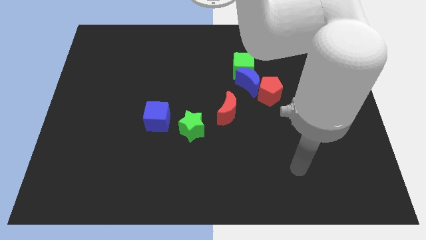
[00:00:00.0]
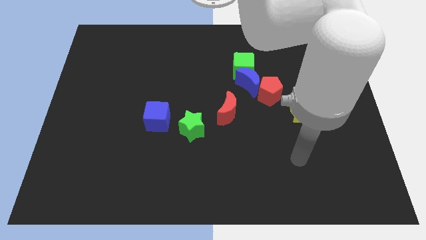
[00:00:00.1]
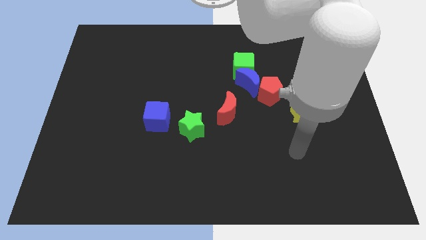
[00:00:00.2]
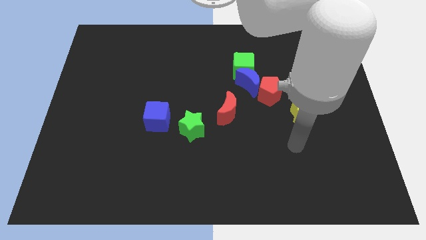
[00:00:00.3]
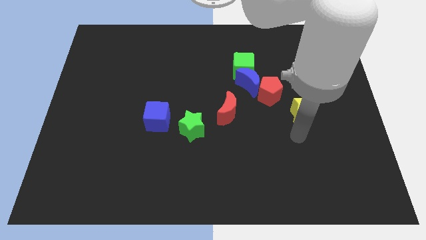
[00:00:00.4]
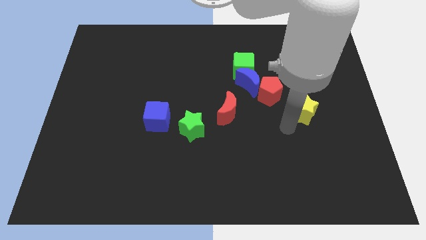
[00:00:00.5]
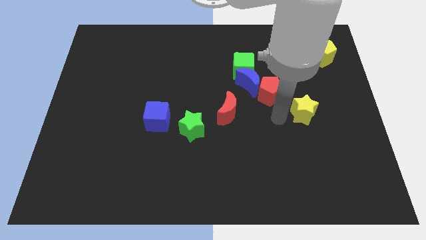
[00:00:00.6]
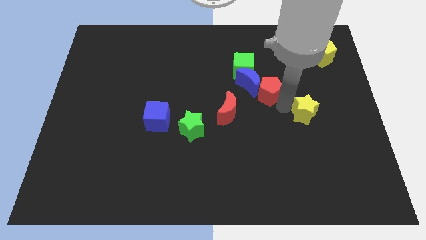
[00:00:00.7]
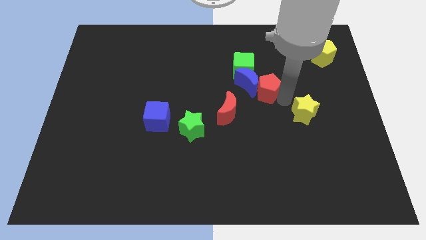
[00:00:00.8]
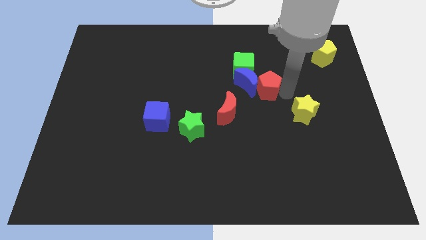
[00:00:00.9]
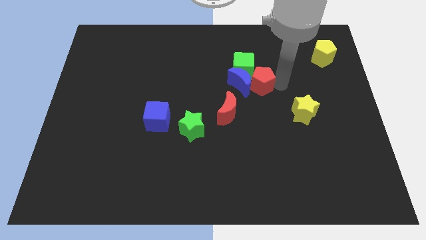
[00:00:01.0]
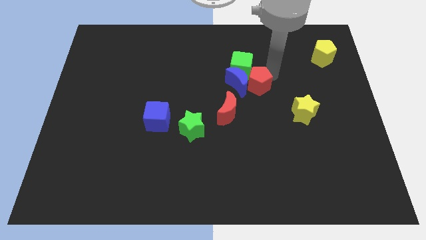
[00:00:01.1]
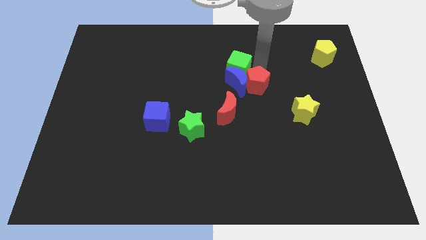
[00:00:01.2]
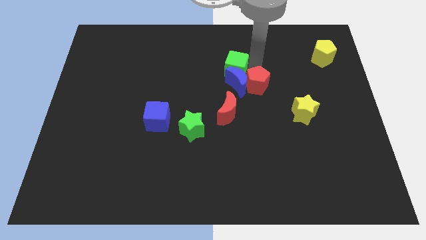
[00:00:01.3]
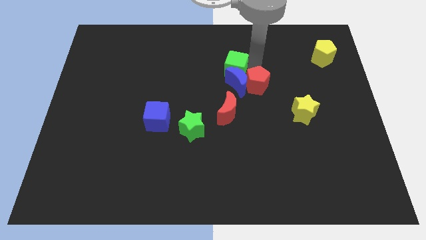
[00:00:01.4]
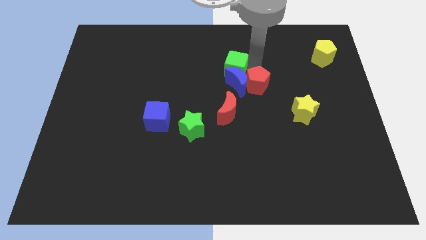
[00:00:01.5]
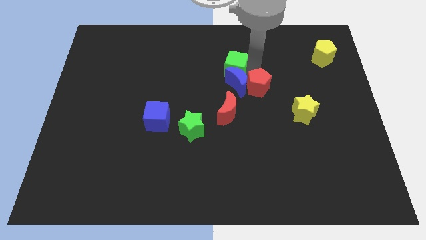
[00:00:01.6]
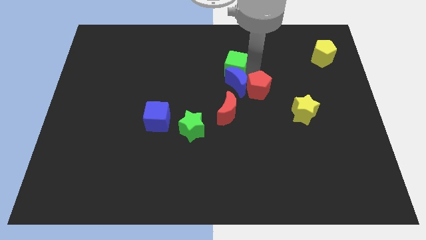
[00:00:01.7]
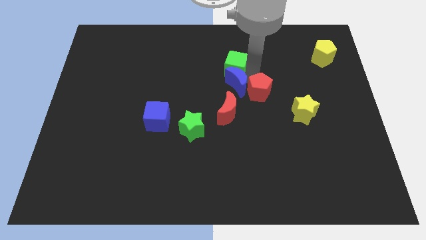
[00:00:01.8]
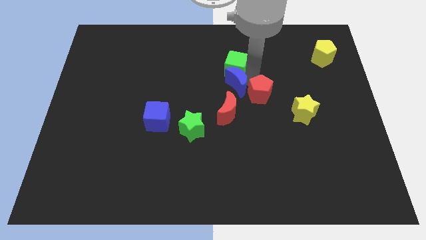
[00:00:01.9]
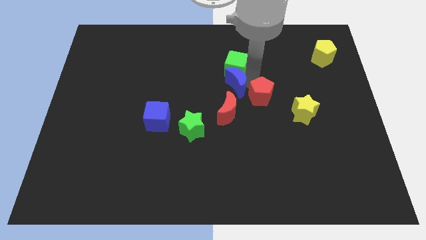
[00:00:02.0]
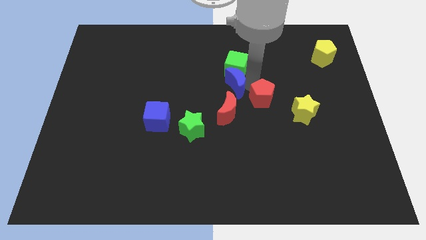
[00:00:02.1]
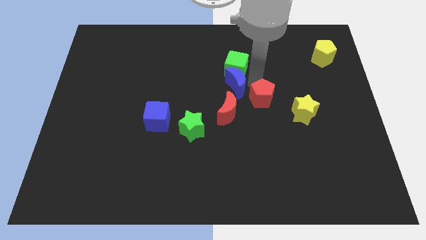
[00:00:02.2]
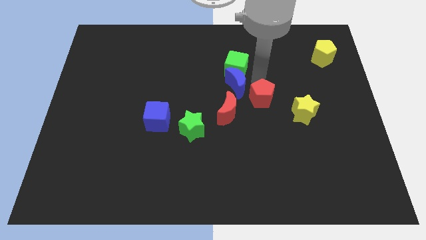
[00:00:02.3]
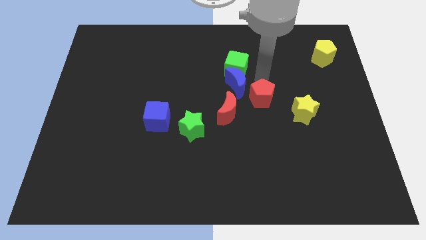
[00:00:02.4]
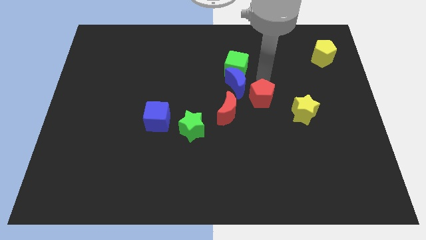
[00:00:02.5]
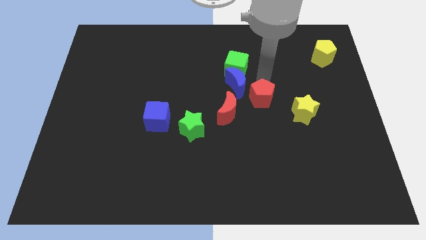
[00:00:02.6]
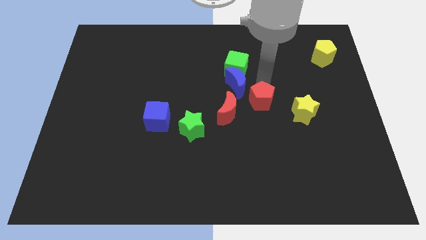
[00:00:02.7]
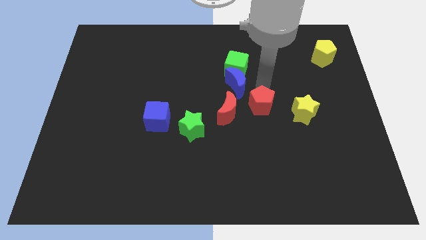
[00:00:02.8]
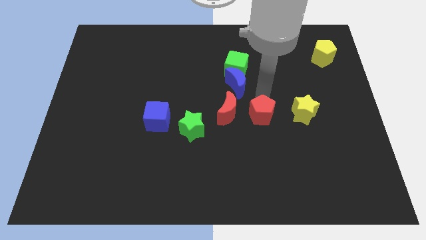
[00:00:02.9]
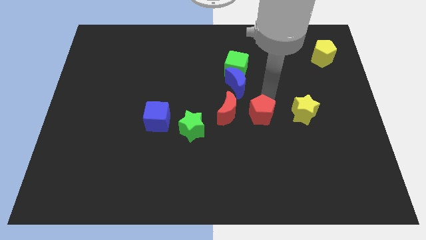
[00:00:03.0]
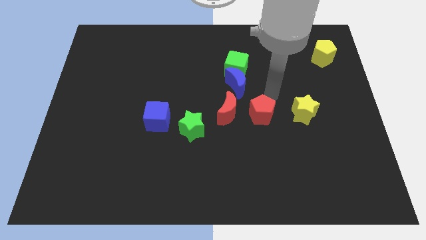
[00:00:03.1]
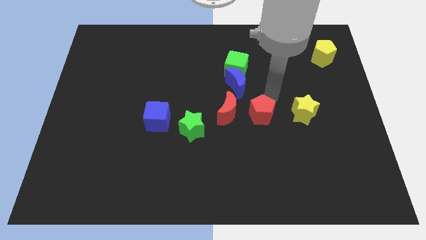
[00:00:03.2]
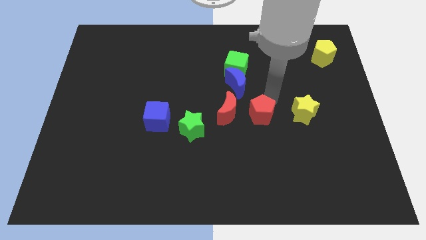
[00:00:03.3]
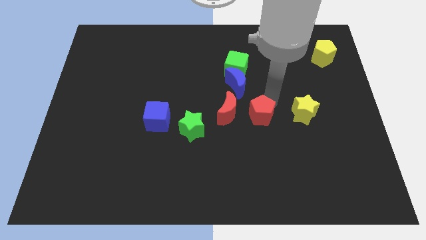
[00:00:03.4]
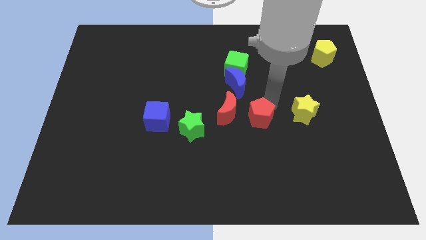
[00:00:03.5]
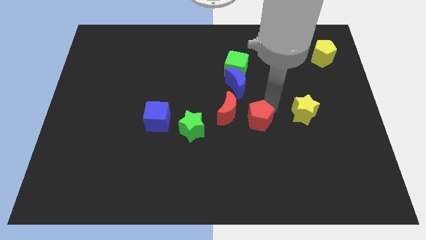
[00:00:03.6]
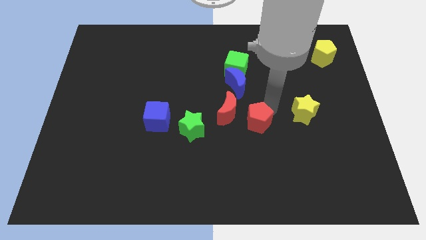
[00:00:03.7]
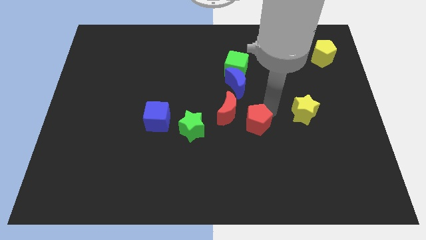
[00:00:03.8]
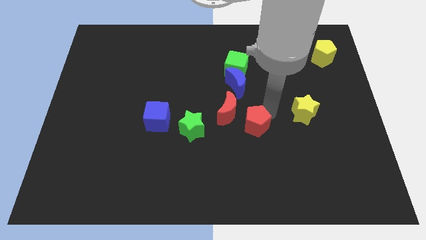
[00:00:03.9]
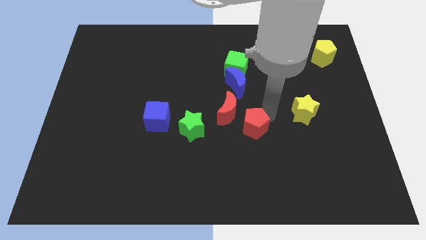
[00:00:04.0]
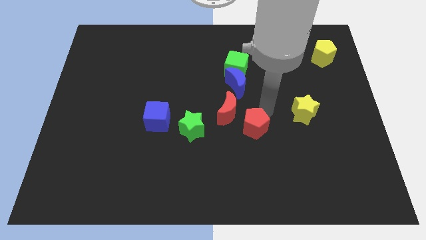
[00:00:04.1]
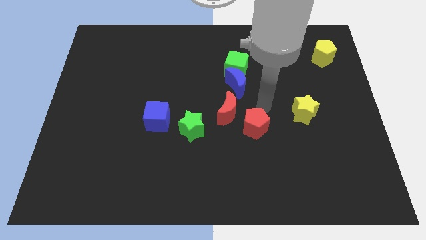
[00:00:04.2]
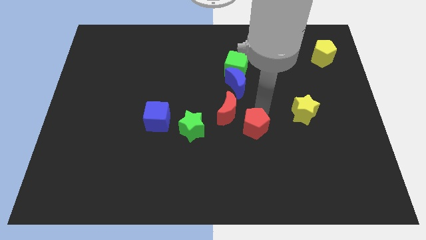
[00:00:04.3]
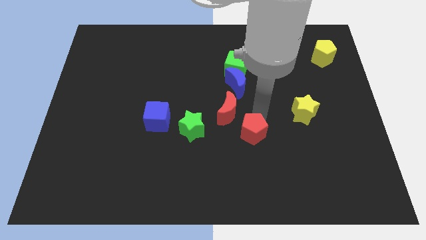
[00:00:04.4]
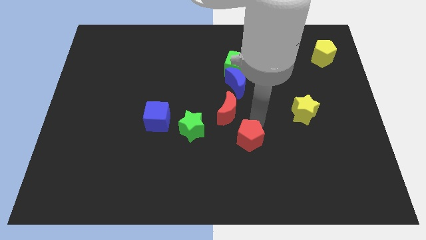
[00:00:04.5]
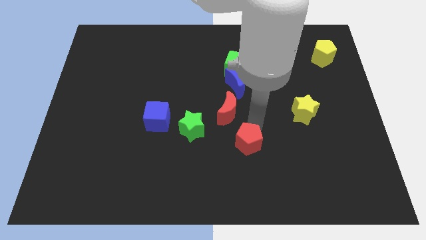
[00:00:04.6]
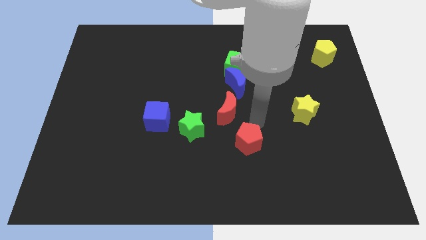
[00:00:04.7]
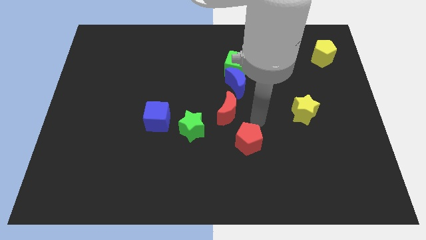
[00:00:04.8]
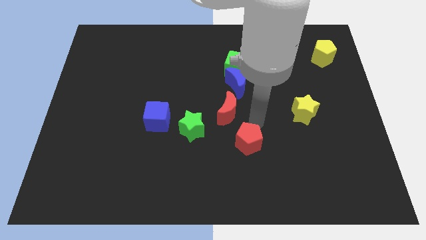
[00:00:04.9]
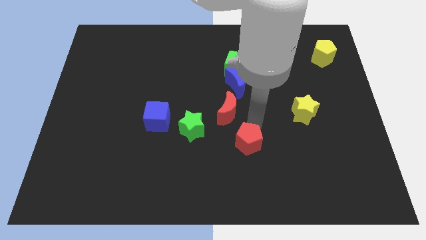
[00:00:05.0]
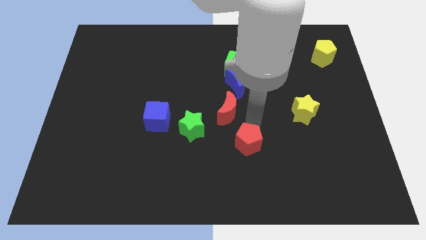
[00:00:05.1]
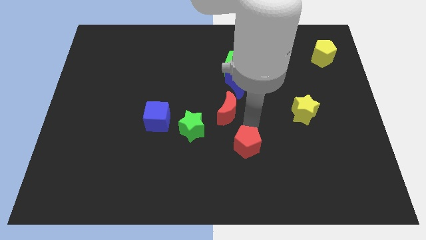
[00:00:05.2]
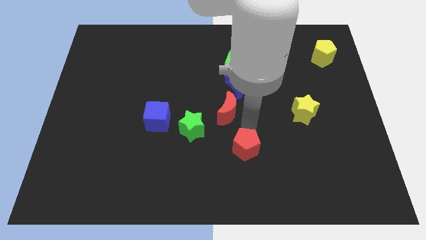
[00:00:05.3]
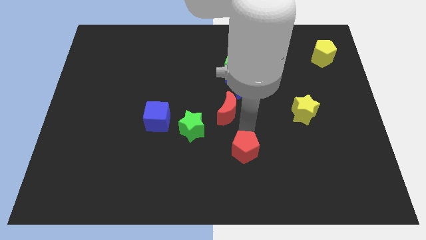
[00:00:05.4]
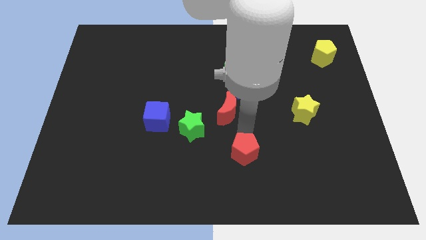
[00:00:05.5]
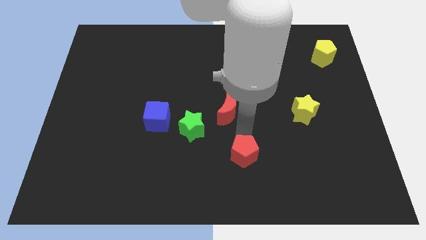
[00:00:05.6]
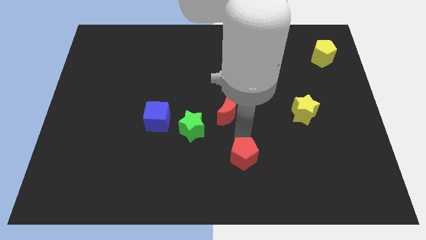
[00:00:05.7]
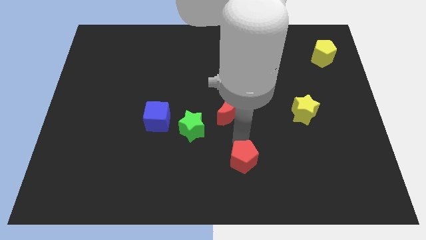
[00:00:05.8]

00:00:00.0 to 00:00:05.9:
put the red pentagon to the bottom side

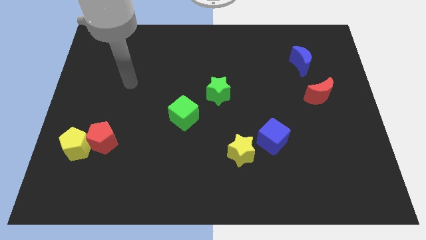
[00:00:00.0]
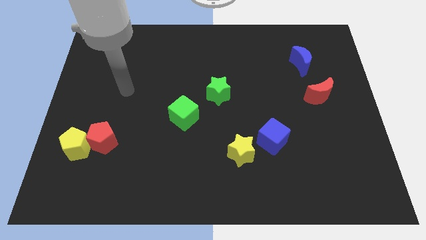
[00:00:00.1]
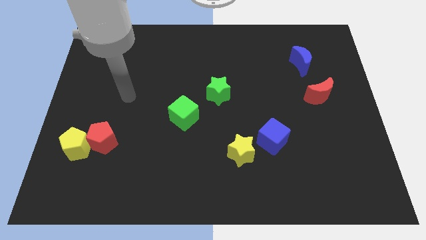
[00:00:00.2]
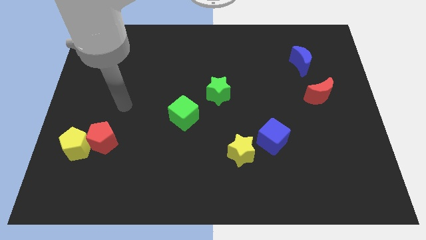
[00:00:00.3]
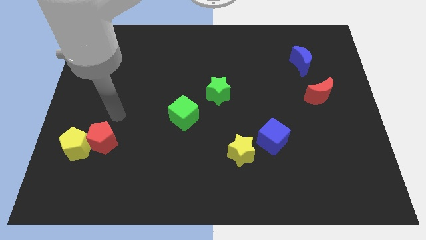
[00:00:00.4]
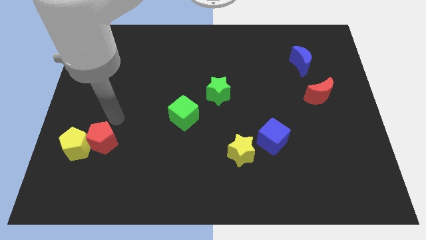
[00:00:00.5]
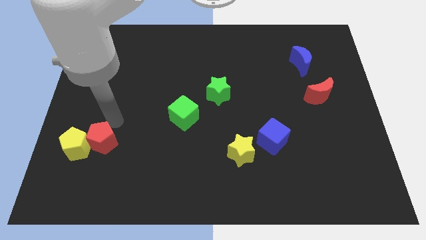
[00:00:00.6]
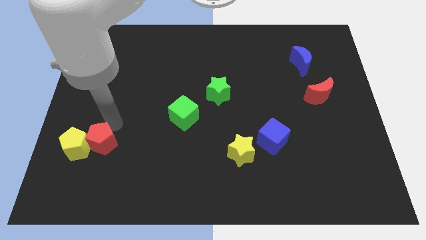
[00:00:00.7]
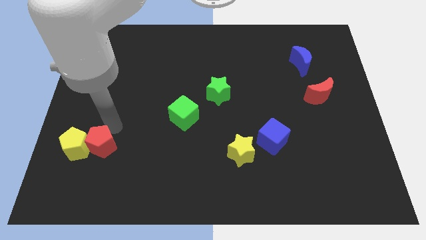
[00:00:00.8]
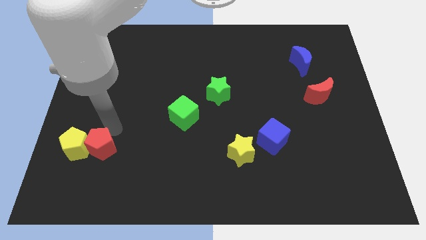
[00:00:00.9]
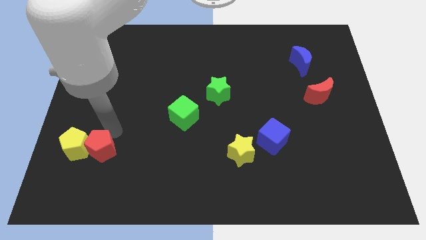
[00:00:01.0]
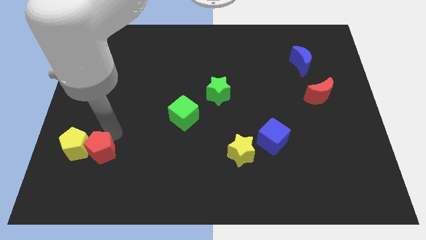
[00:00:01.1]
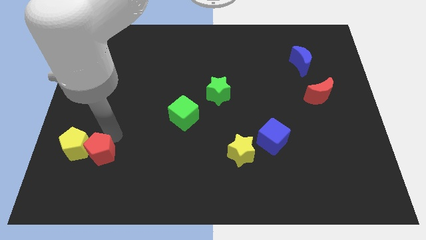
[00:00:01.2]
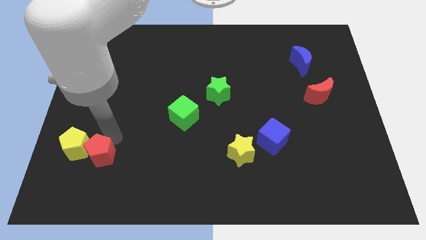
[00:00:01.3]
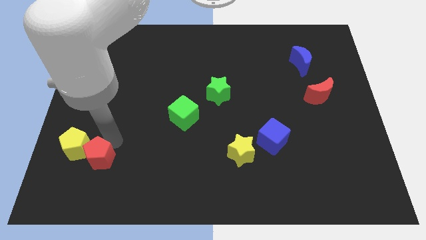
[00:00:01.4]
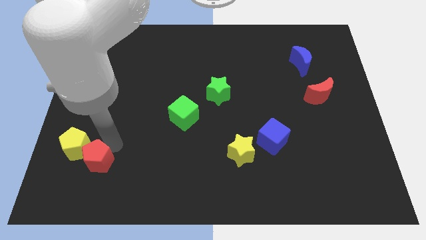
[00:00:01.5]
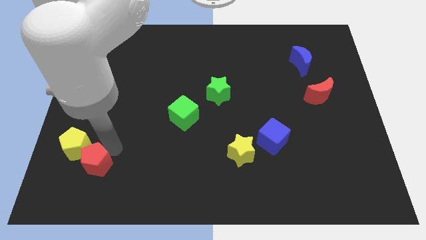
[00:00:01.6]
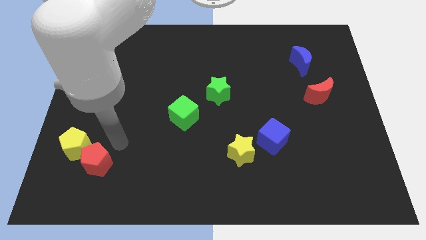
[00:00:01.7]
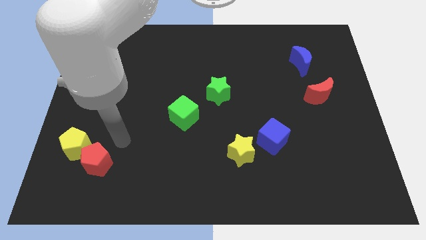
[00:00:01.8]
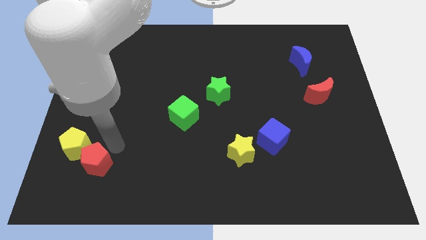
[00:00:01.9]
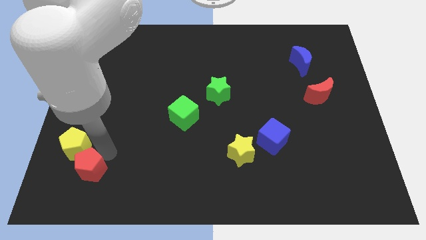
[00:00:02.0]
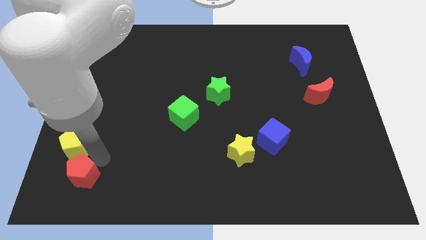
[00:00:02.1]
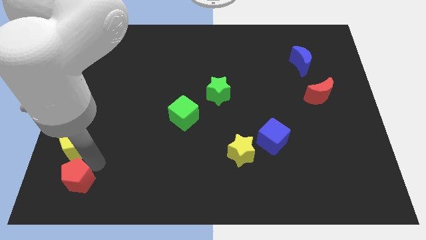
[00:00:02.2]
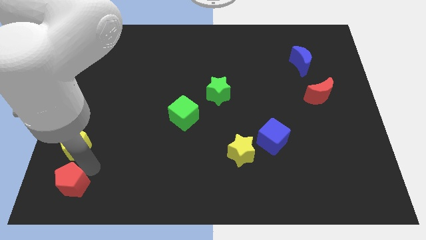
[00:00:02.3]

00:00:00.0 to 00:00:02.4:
put the red pentagon to the lower left corner
